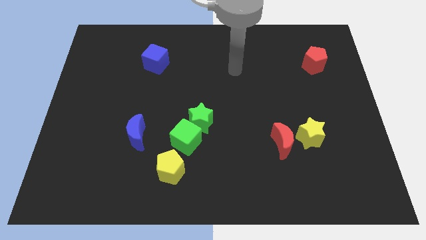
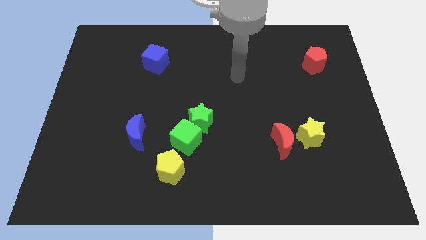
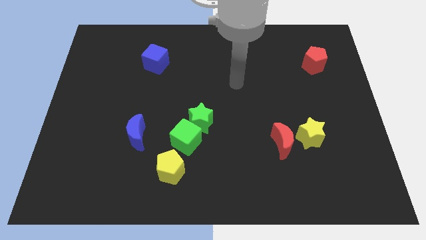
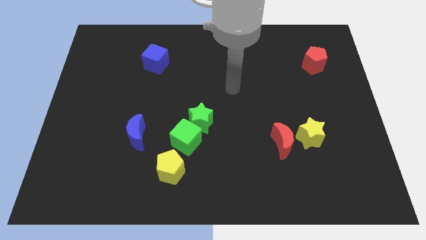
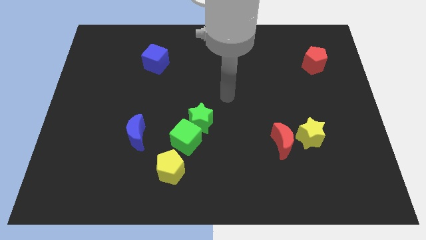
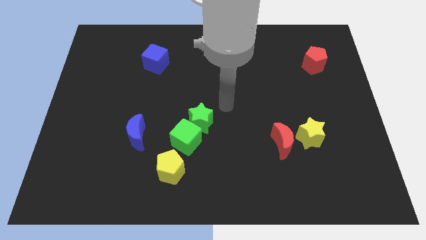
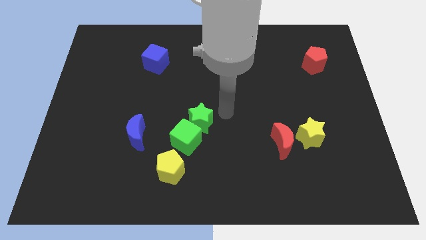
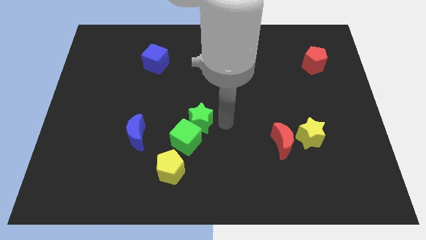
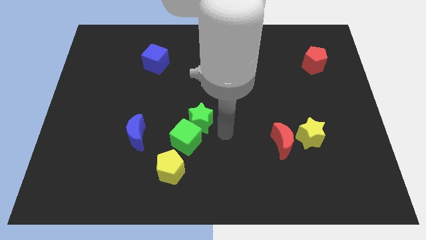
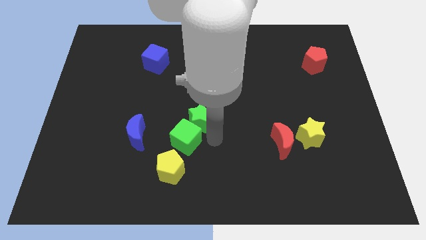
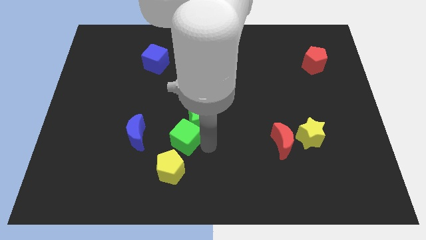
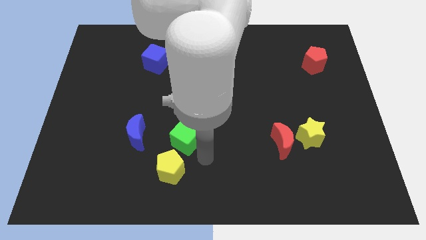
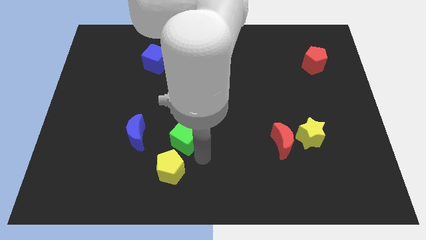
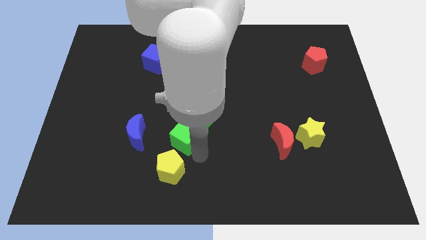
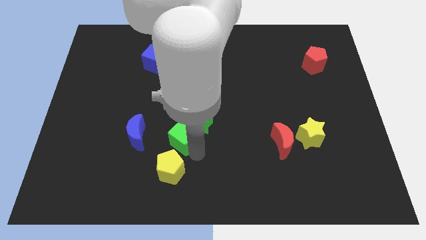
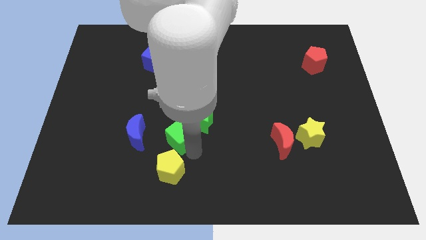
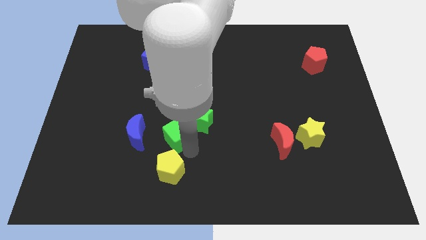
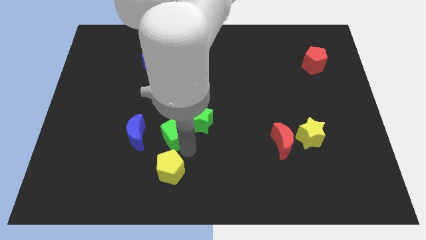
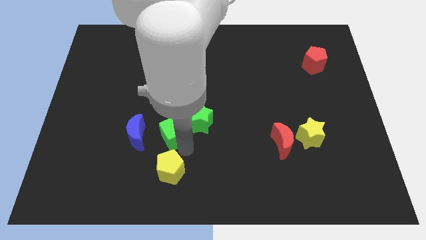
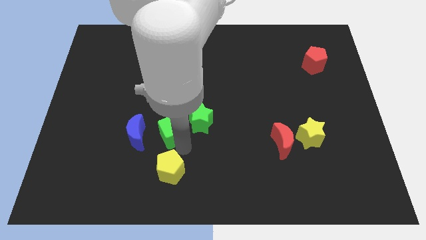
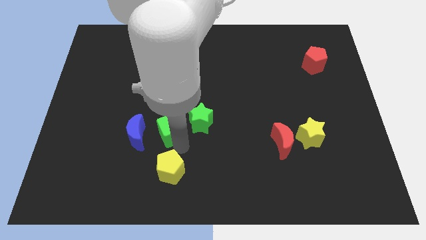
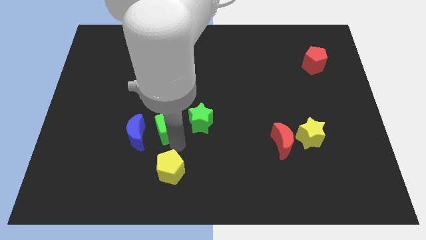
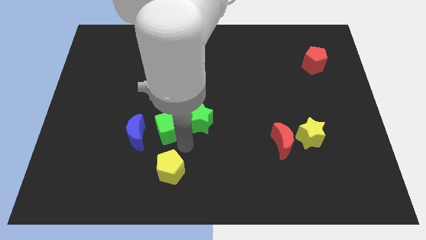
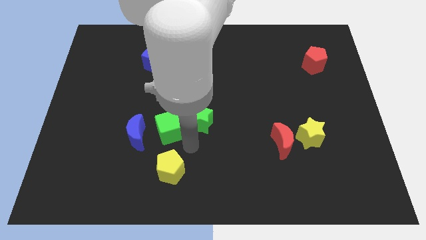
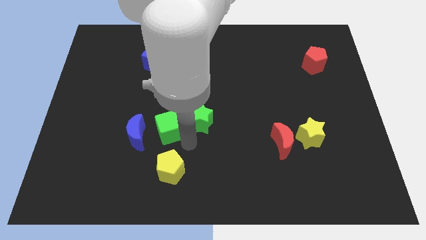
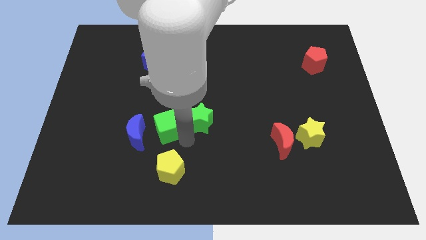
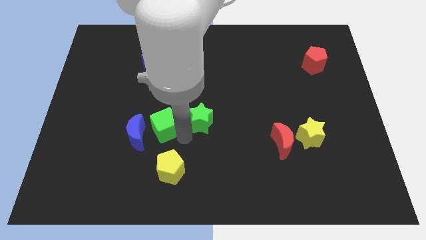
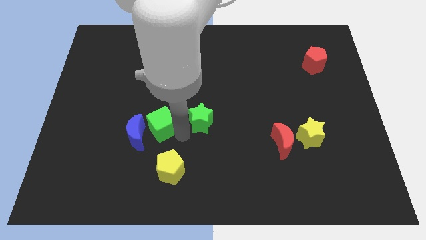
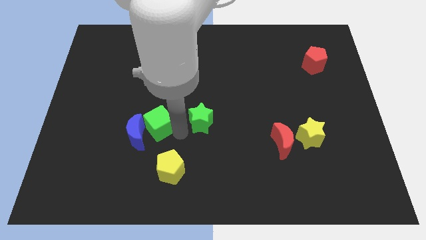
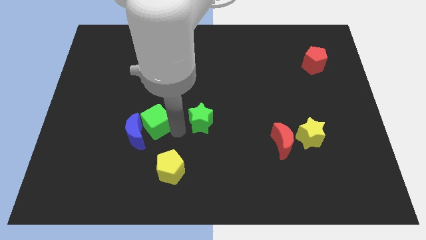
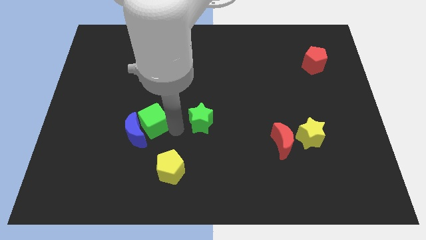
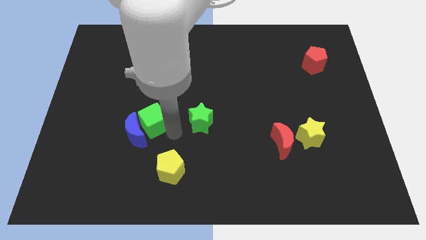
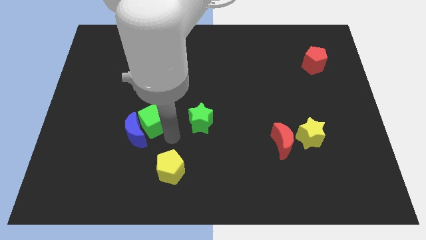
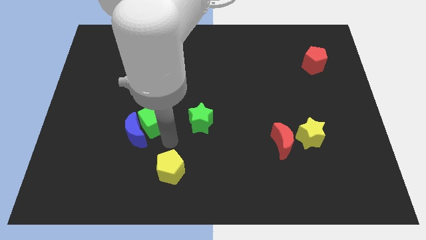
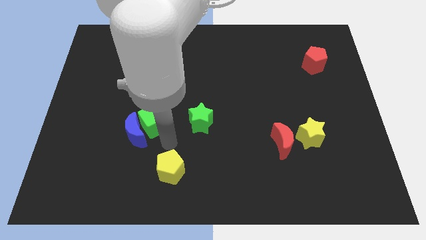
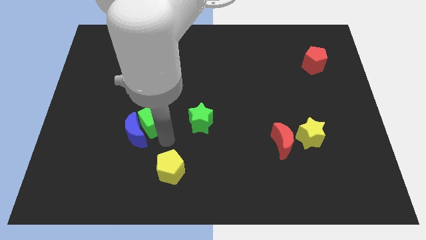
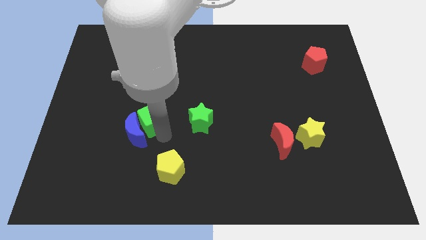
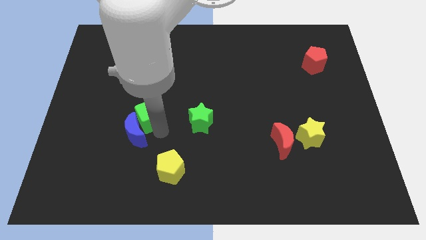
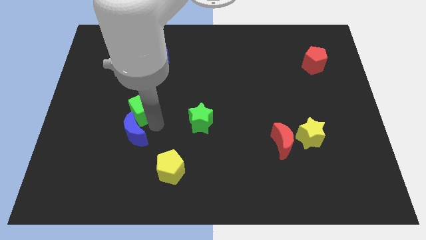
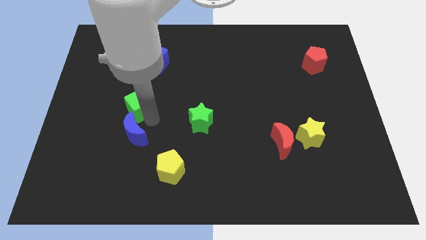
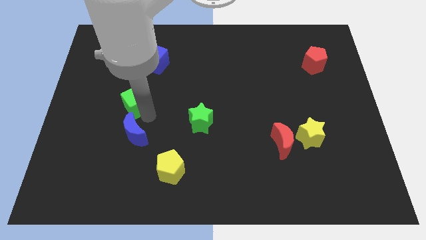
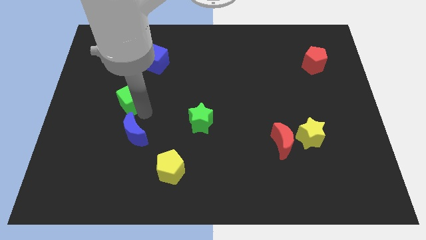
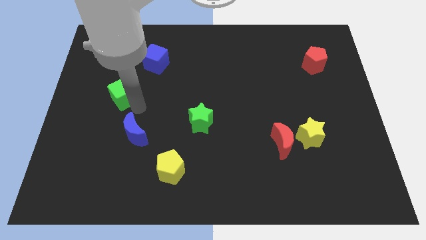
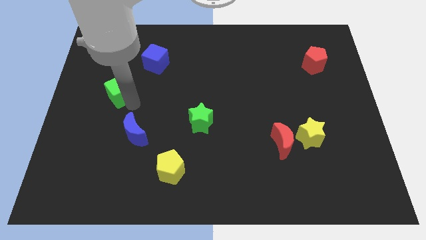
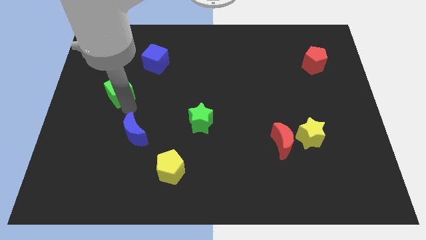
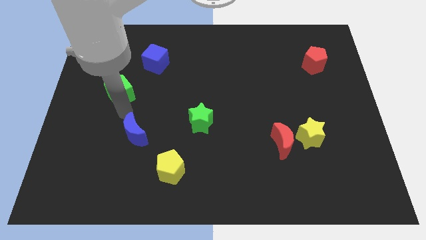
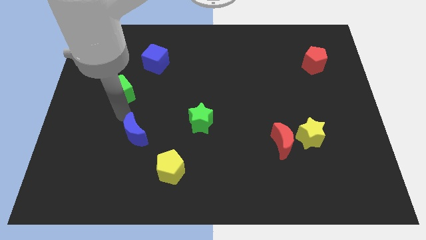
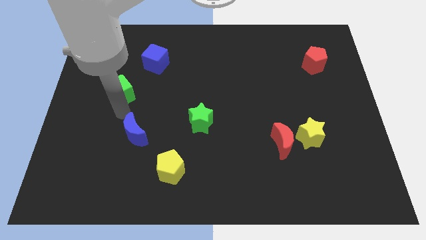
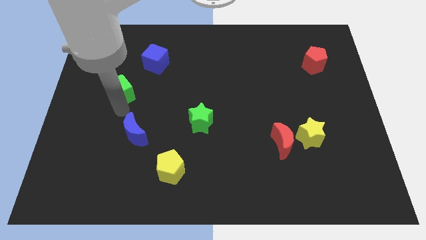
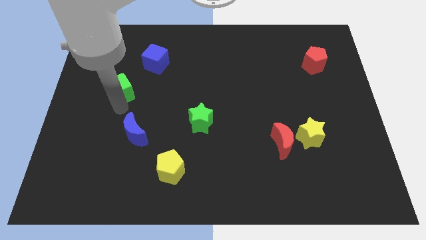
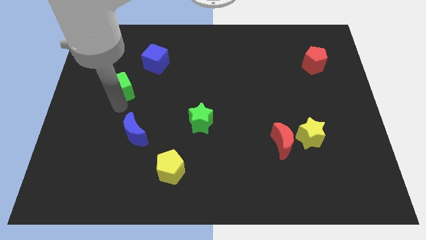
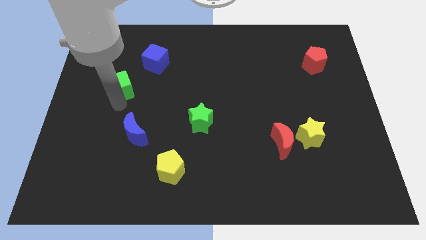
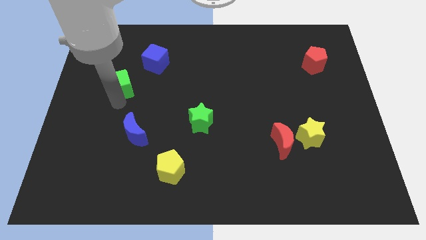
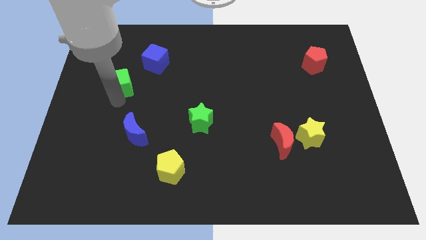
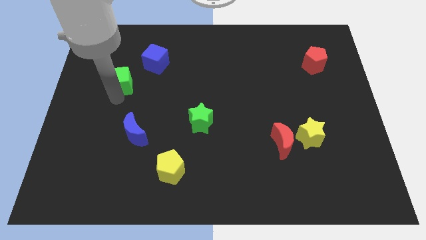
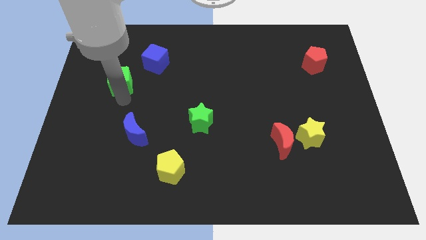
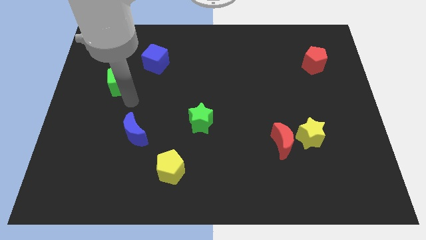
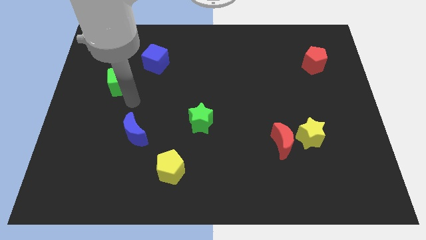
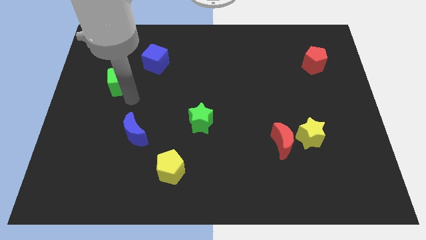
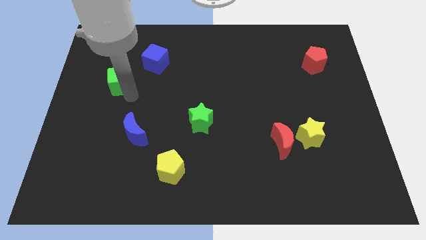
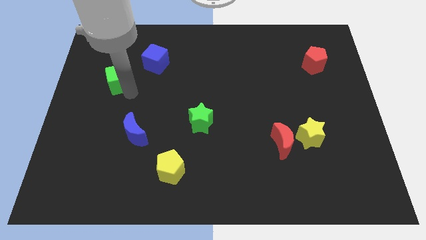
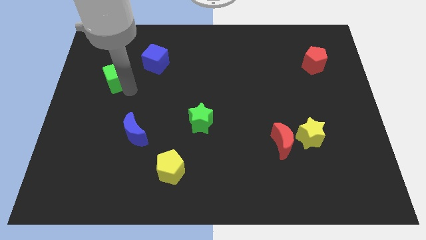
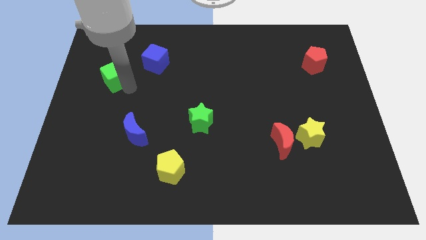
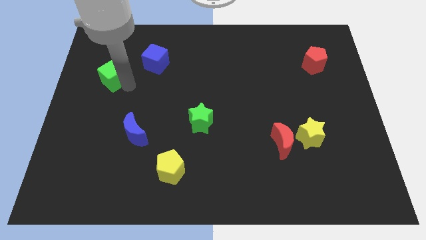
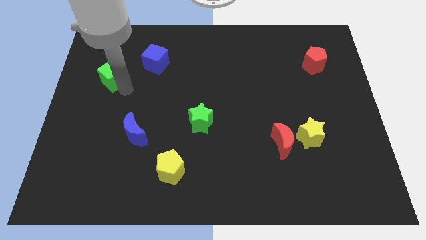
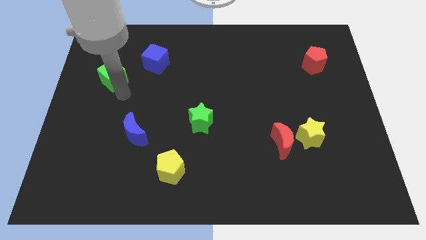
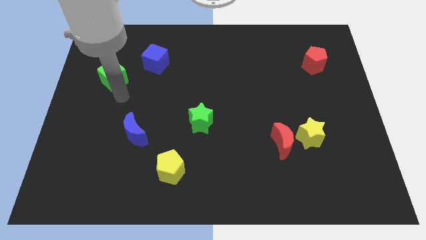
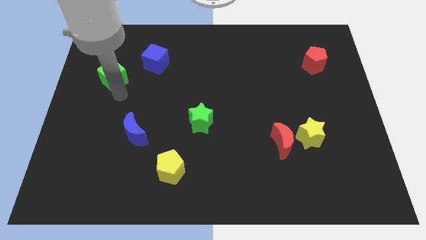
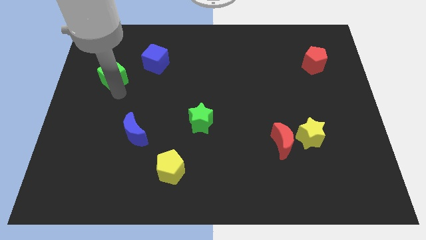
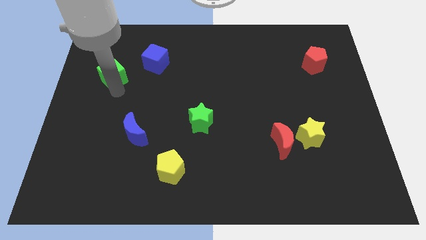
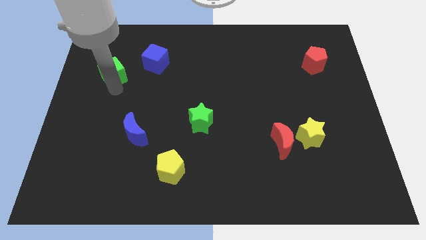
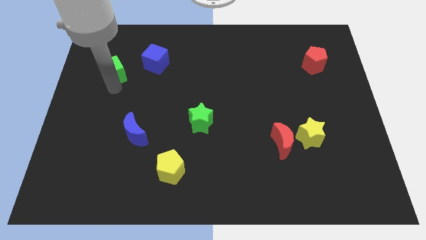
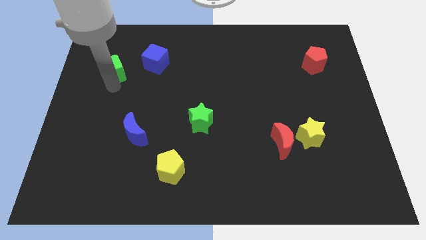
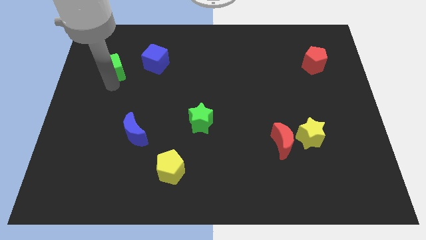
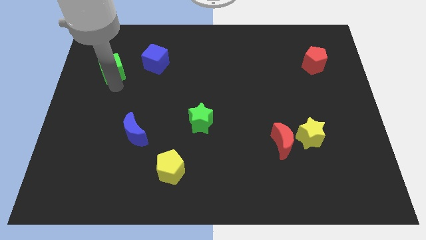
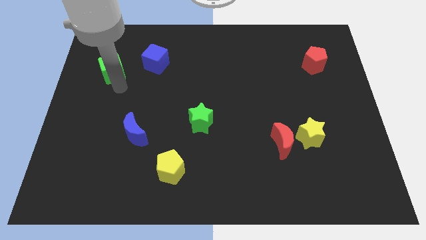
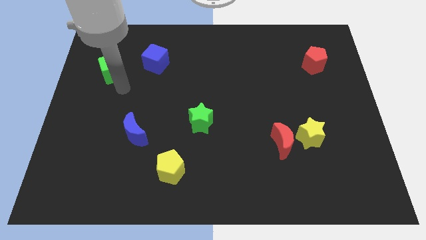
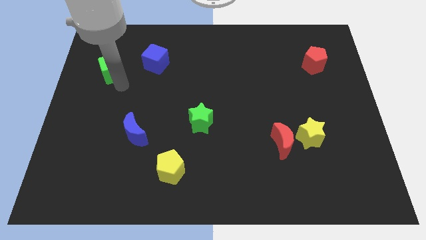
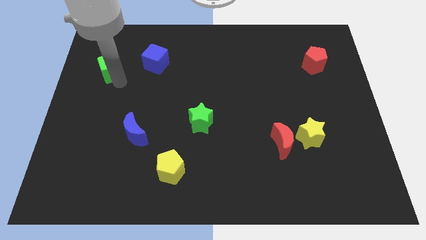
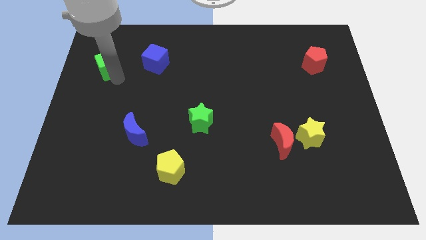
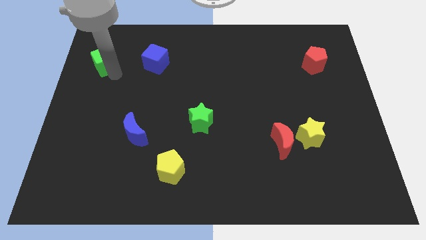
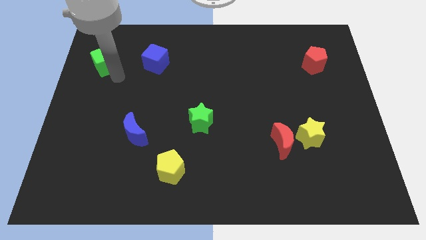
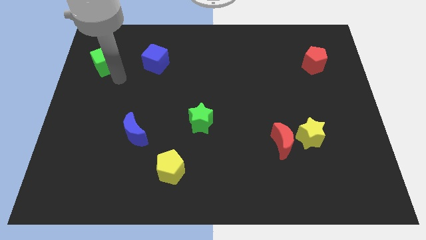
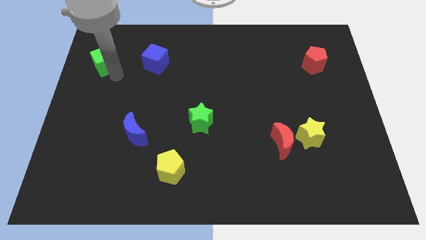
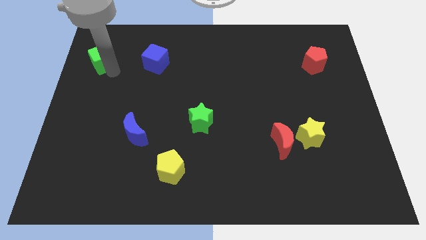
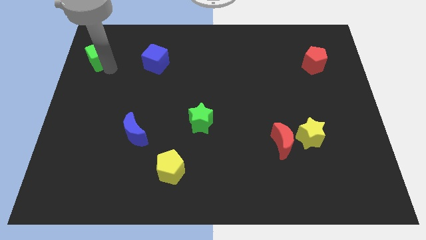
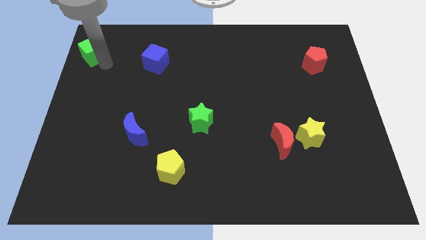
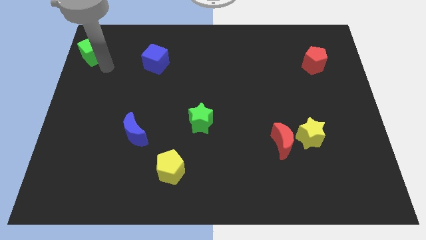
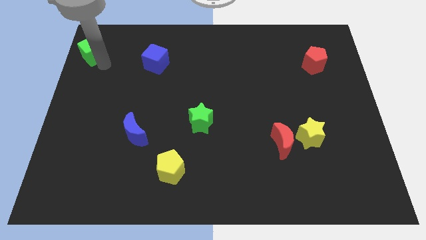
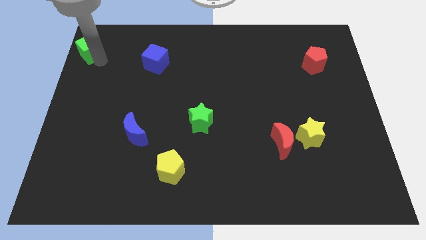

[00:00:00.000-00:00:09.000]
put the green cube to the upper left corner
